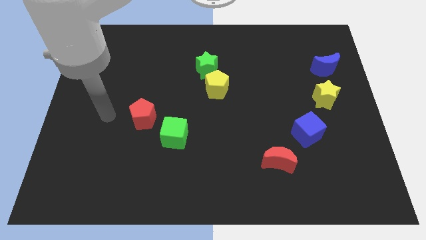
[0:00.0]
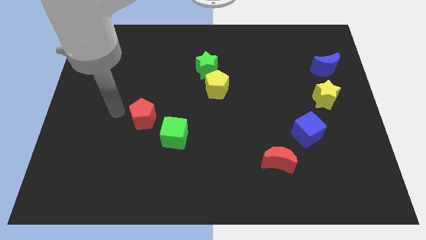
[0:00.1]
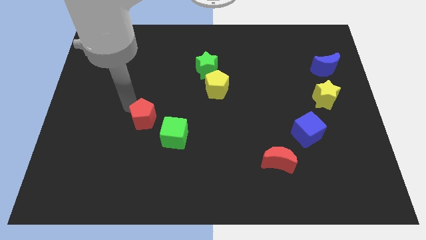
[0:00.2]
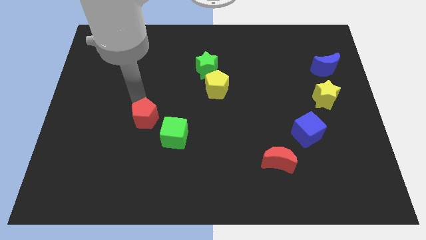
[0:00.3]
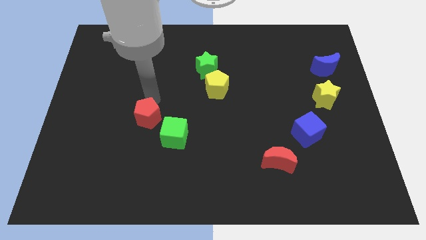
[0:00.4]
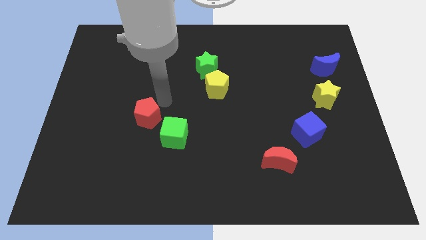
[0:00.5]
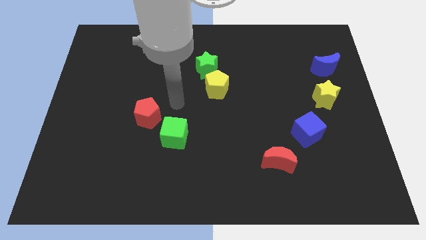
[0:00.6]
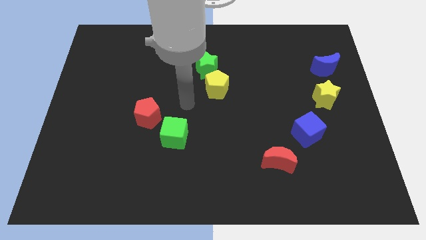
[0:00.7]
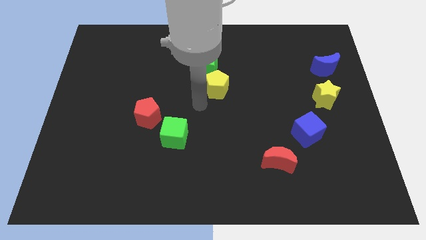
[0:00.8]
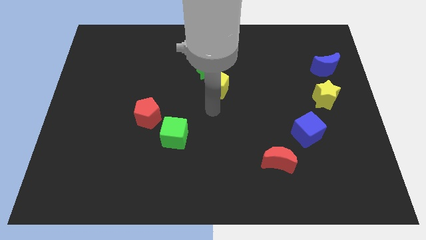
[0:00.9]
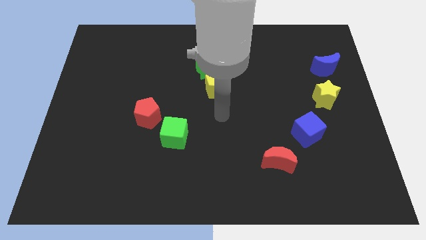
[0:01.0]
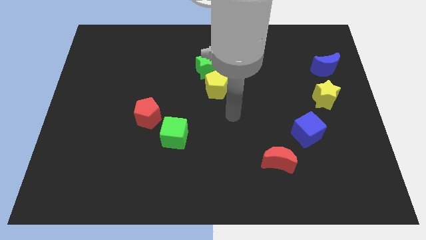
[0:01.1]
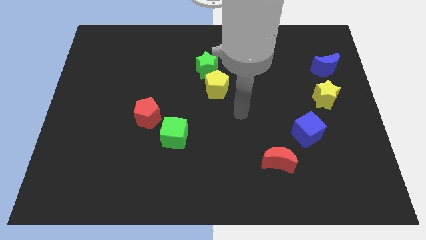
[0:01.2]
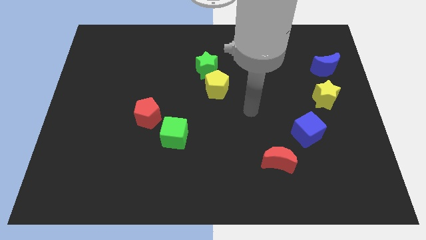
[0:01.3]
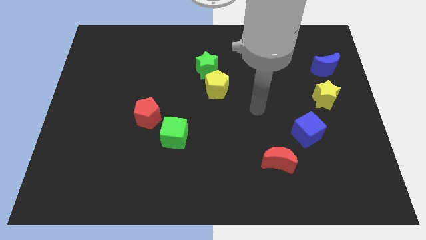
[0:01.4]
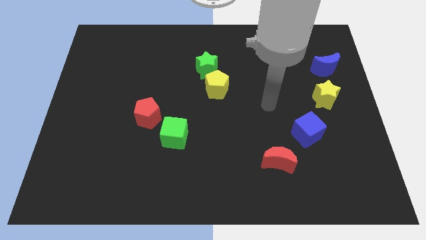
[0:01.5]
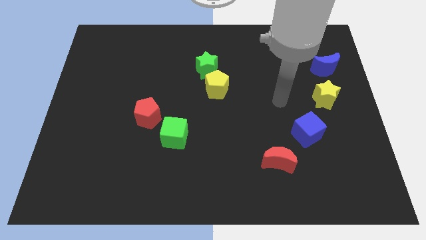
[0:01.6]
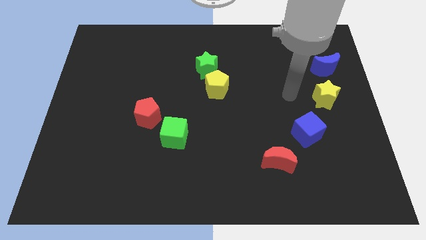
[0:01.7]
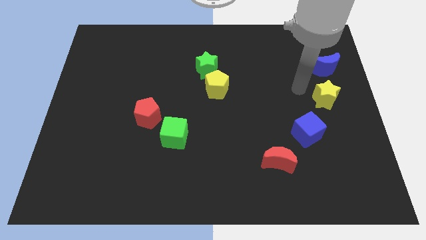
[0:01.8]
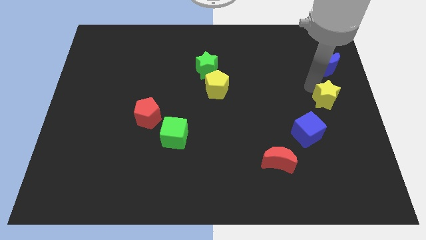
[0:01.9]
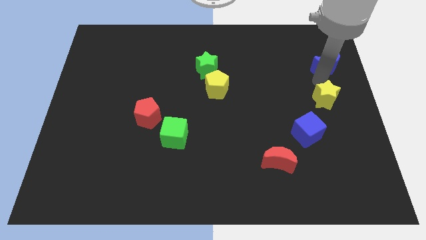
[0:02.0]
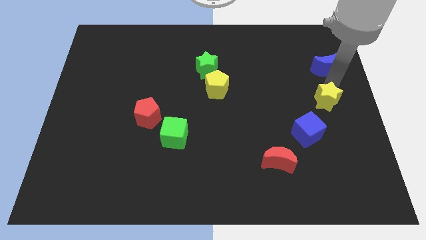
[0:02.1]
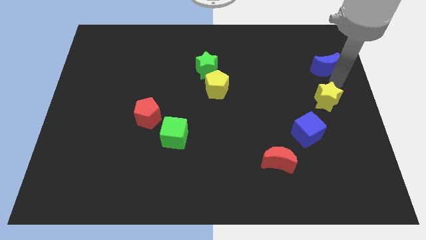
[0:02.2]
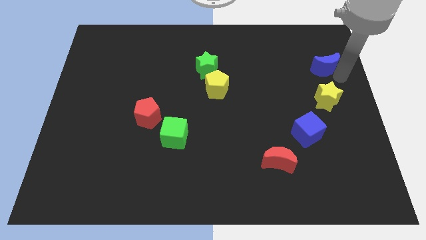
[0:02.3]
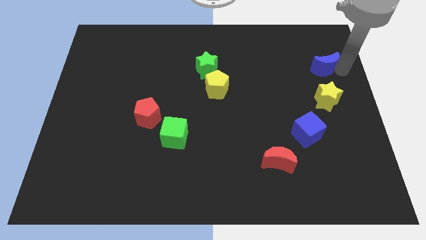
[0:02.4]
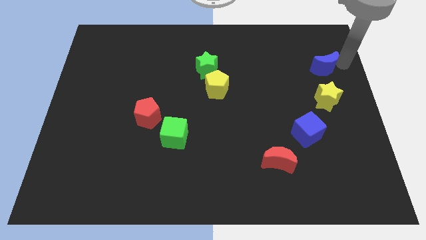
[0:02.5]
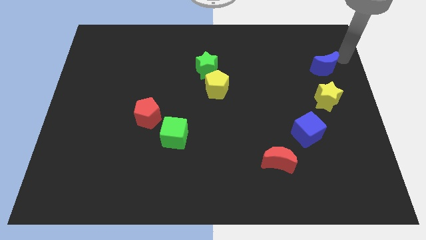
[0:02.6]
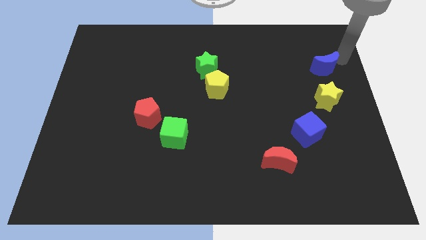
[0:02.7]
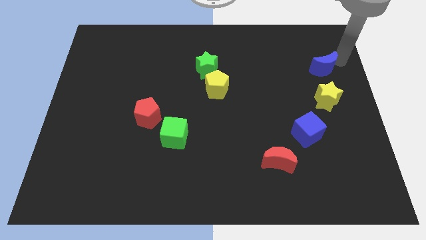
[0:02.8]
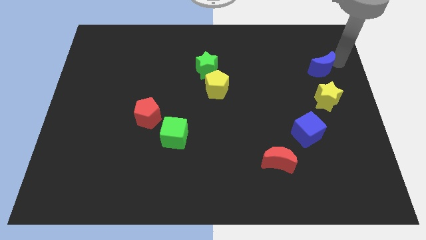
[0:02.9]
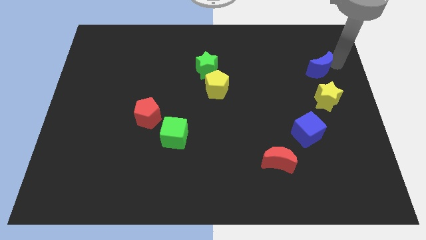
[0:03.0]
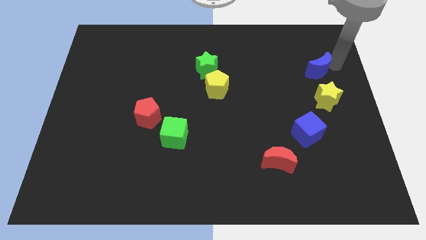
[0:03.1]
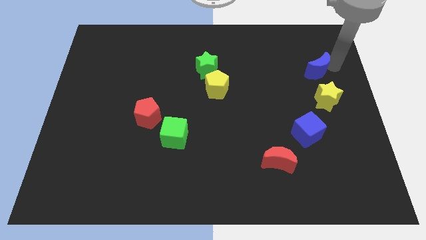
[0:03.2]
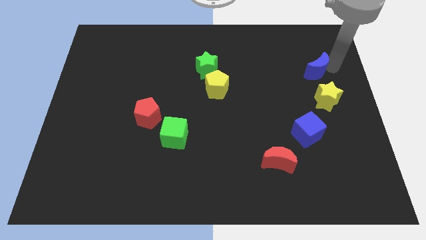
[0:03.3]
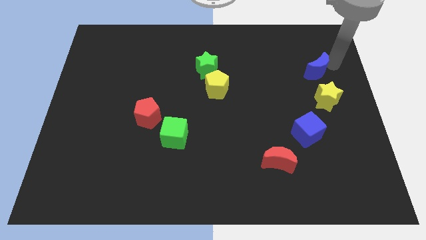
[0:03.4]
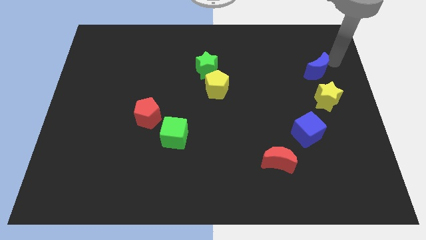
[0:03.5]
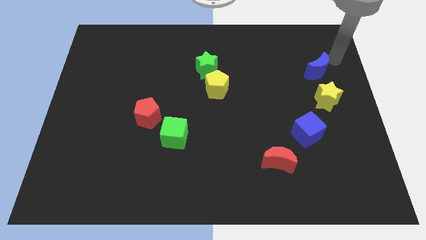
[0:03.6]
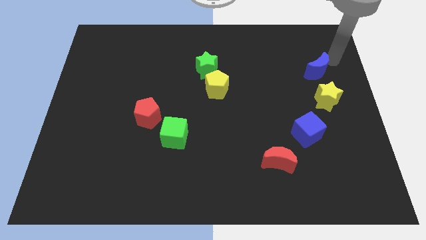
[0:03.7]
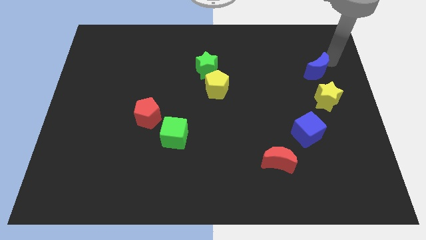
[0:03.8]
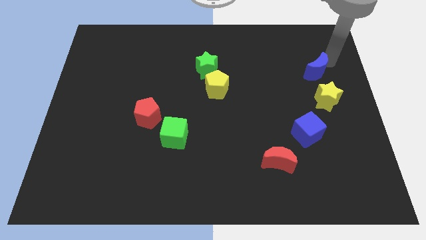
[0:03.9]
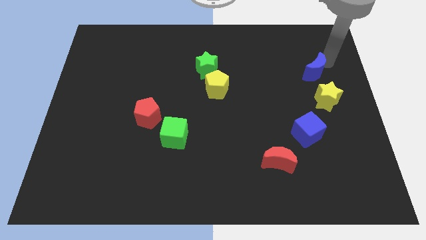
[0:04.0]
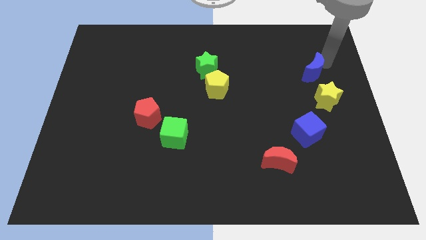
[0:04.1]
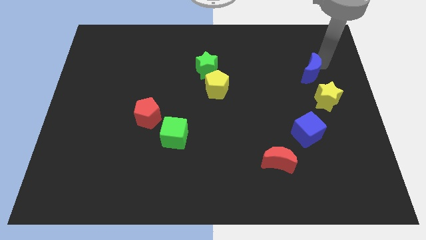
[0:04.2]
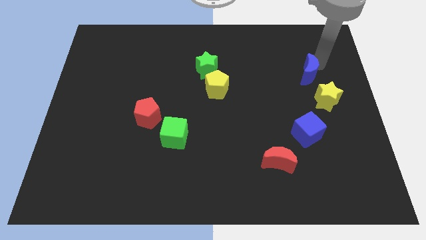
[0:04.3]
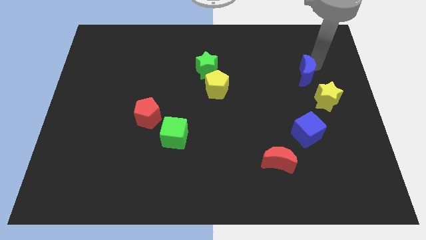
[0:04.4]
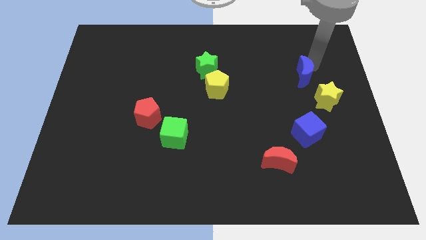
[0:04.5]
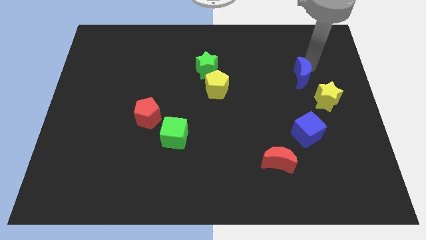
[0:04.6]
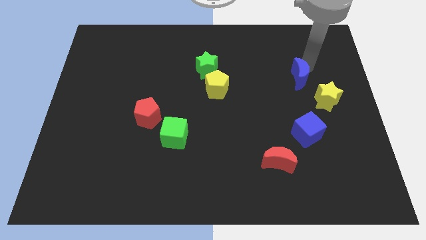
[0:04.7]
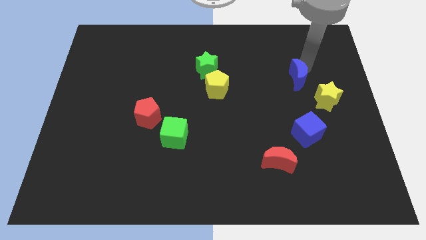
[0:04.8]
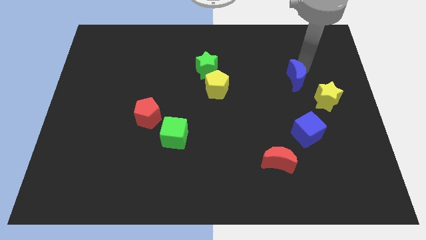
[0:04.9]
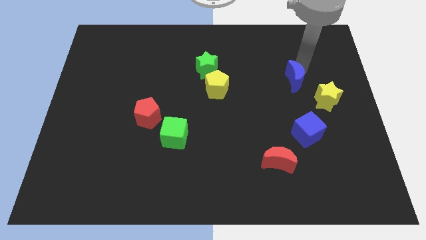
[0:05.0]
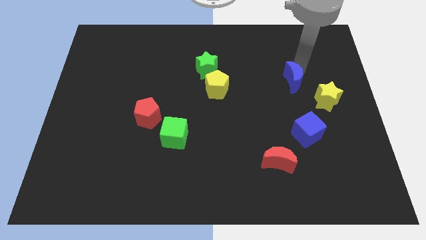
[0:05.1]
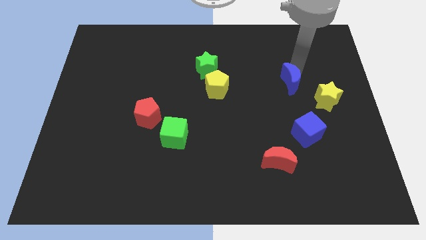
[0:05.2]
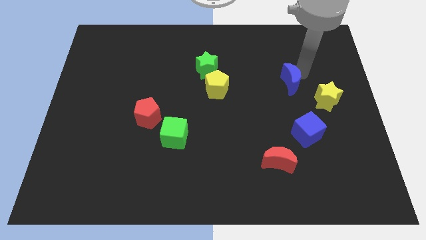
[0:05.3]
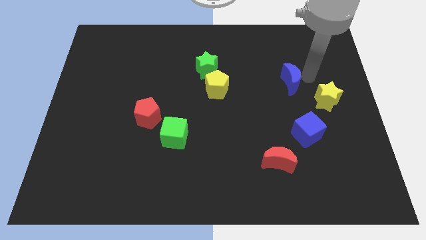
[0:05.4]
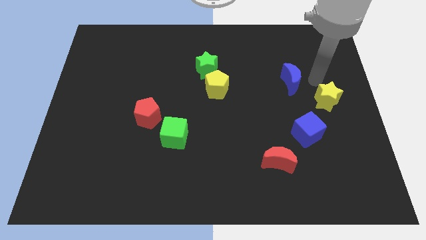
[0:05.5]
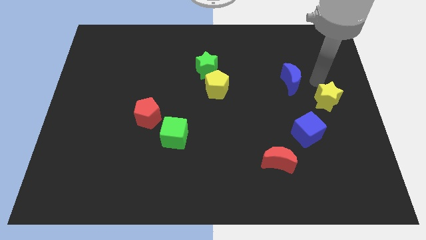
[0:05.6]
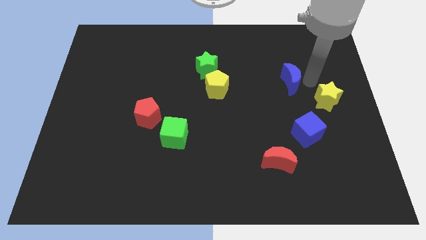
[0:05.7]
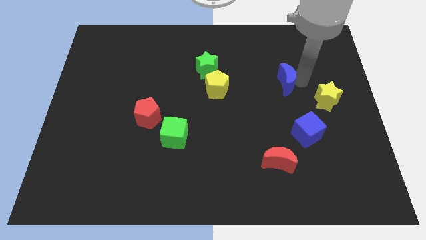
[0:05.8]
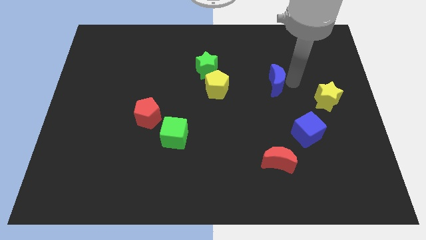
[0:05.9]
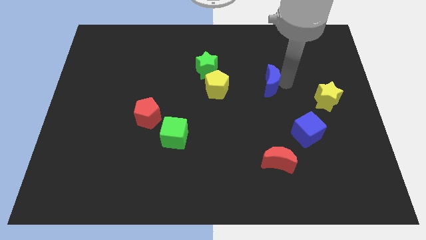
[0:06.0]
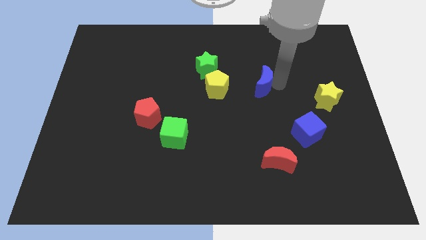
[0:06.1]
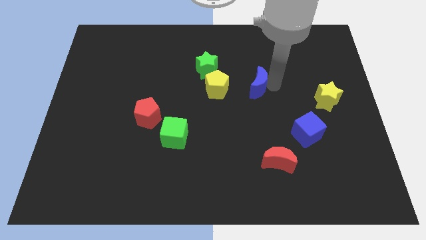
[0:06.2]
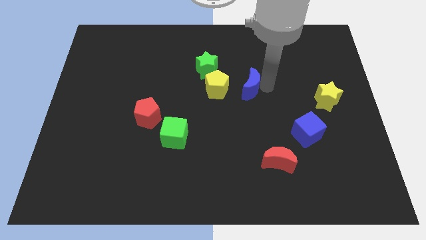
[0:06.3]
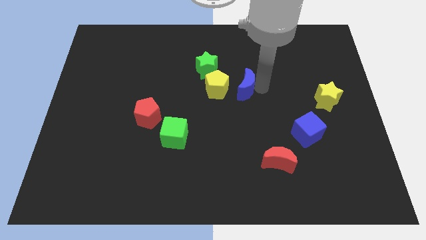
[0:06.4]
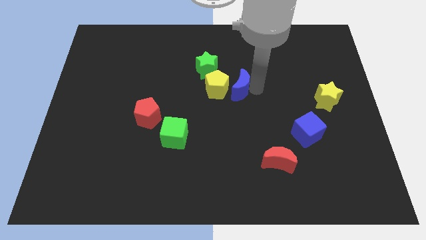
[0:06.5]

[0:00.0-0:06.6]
push the blue moon to the yellow pentagon

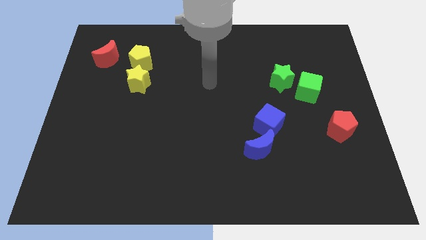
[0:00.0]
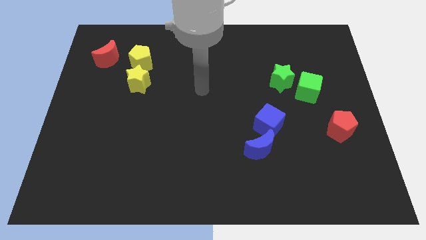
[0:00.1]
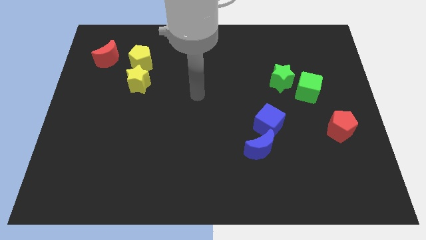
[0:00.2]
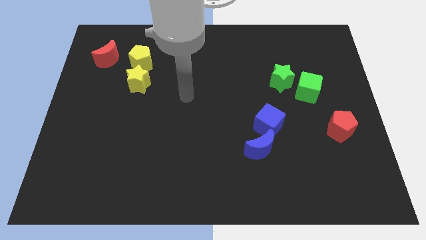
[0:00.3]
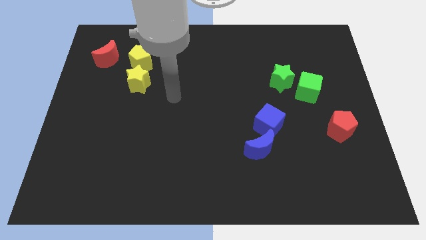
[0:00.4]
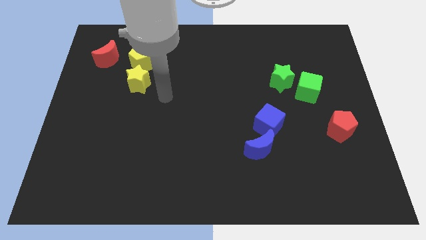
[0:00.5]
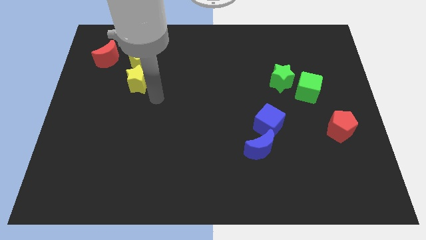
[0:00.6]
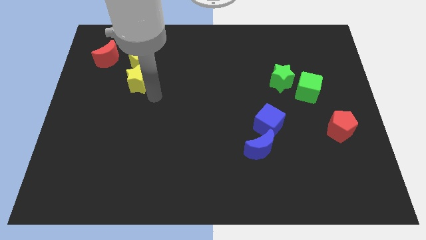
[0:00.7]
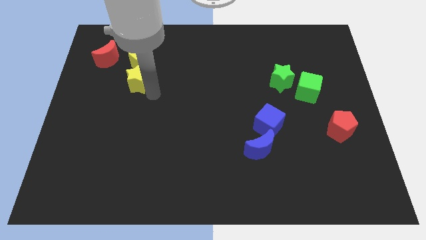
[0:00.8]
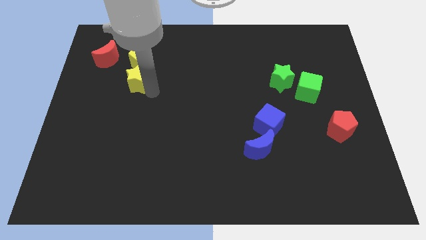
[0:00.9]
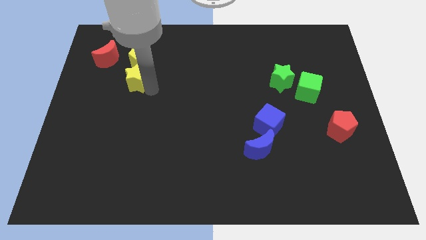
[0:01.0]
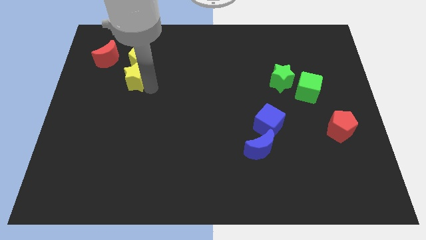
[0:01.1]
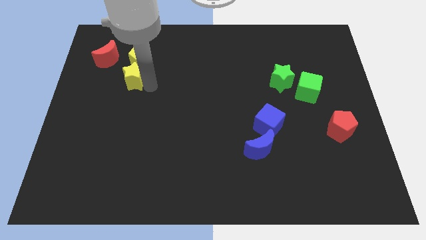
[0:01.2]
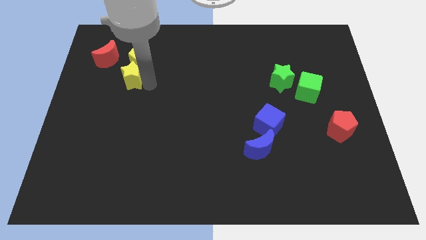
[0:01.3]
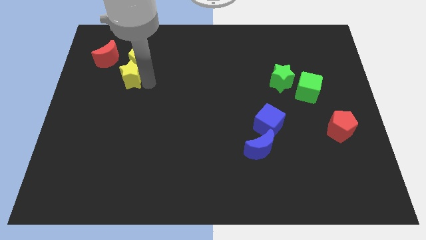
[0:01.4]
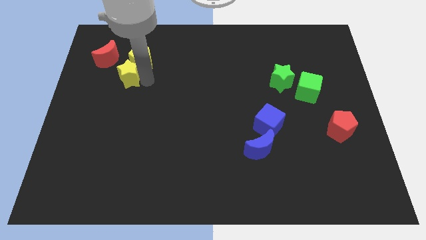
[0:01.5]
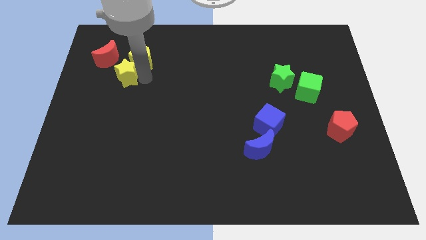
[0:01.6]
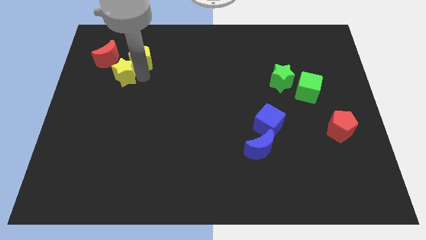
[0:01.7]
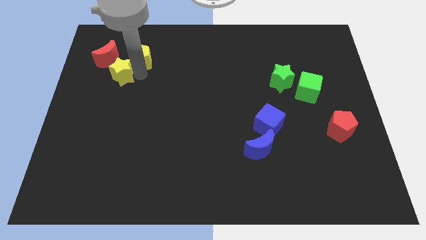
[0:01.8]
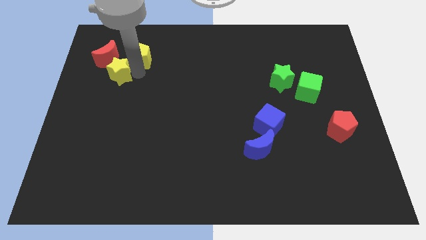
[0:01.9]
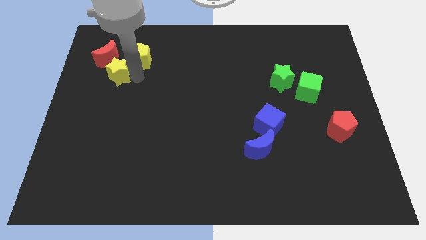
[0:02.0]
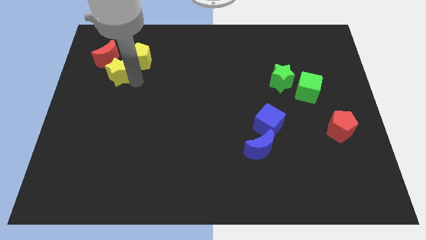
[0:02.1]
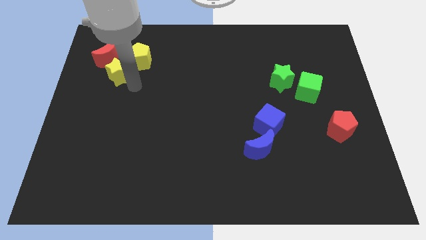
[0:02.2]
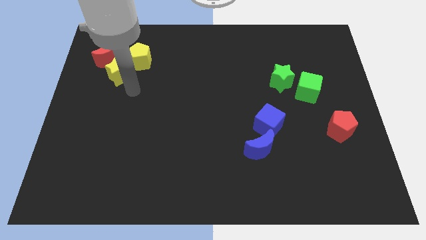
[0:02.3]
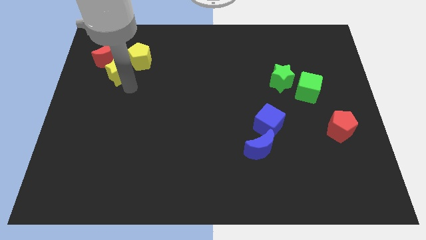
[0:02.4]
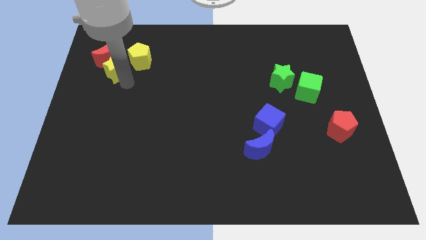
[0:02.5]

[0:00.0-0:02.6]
slide the yellow star close to the red moon
